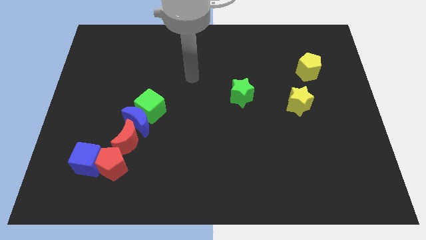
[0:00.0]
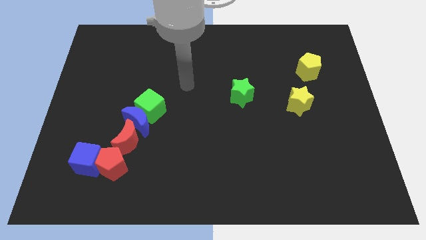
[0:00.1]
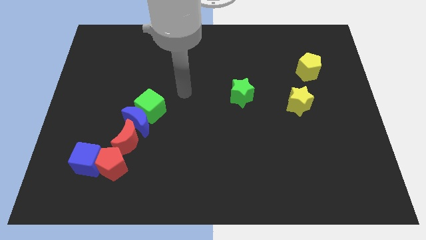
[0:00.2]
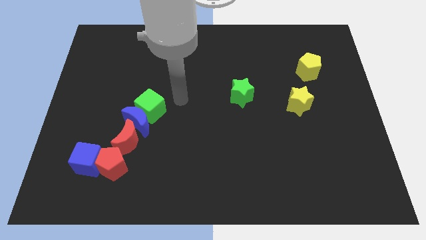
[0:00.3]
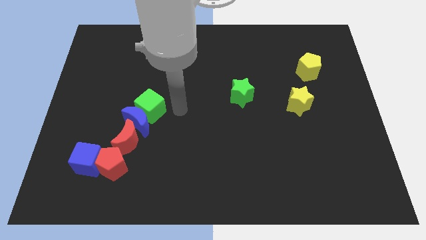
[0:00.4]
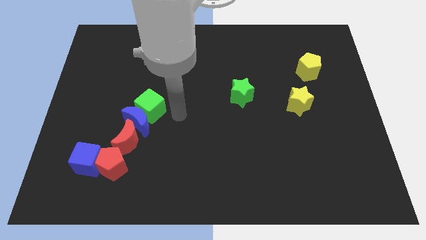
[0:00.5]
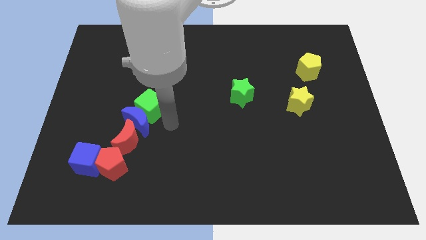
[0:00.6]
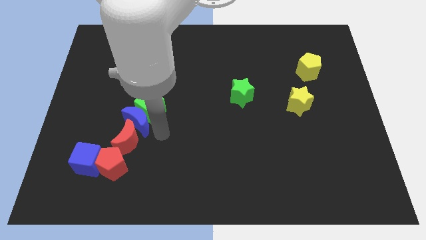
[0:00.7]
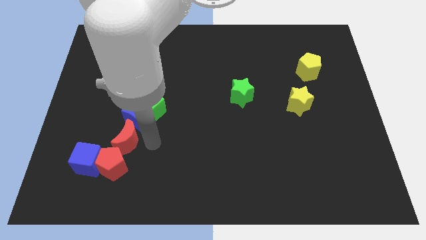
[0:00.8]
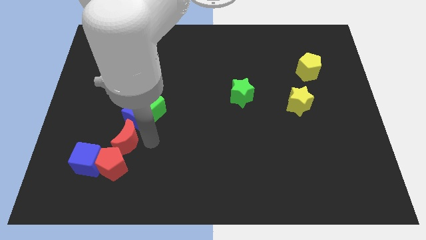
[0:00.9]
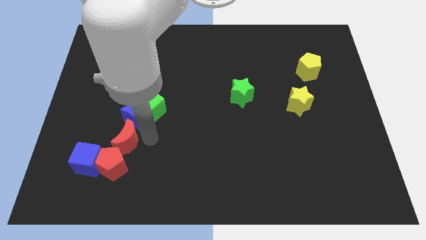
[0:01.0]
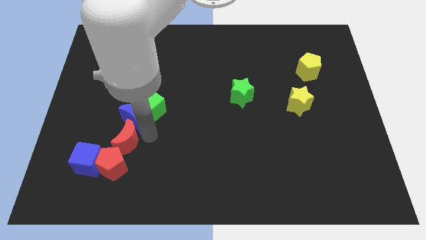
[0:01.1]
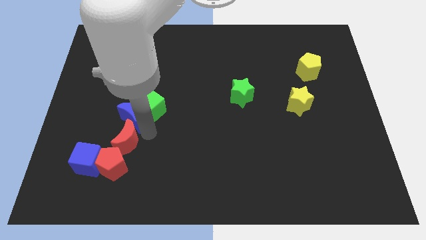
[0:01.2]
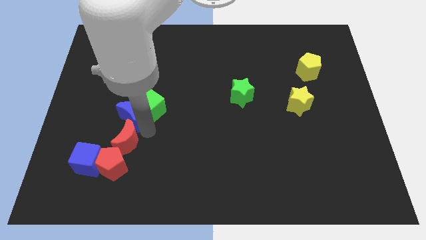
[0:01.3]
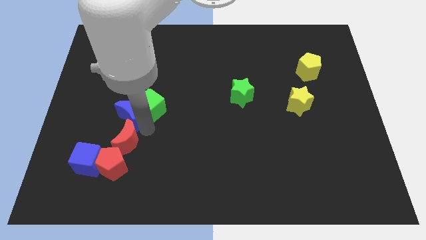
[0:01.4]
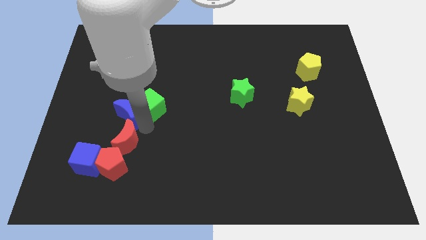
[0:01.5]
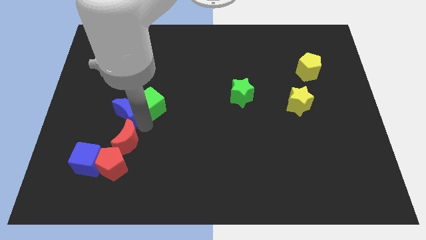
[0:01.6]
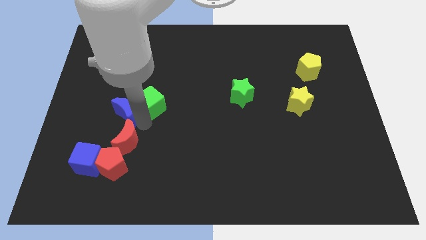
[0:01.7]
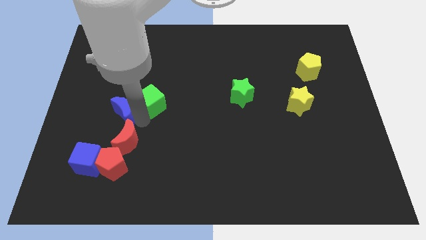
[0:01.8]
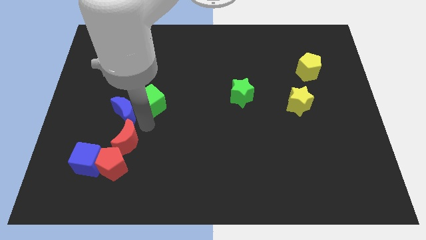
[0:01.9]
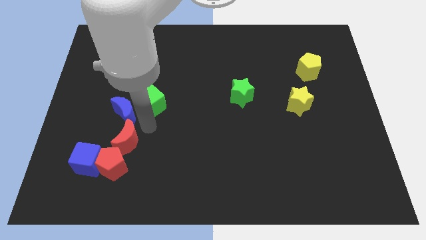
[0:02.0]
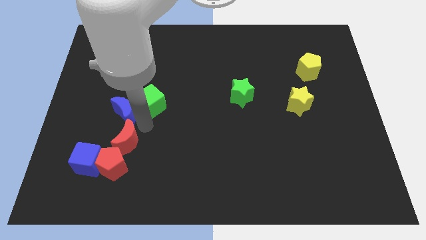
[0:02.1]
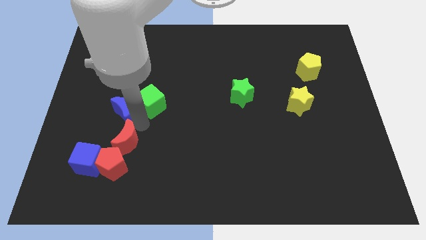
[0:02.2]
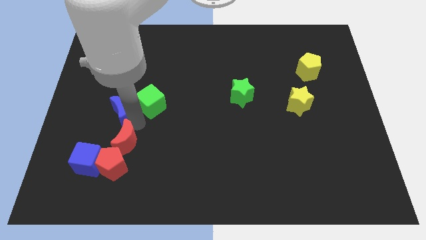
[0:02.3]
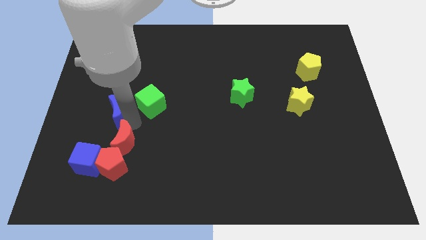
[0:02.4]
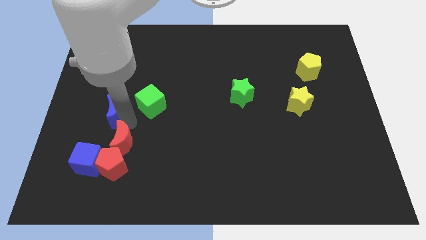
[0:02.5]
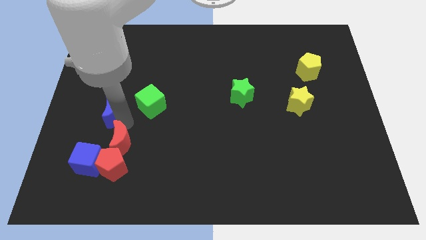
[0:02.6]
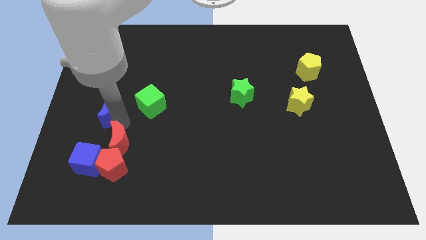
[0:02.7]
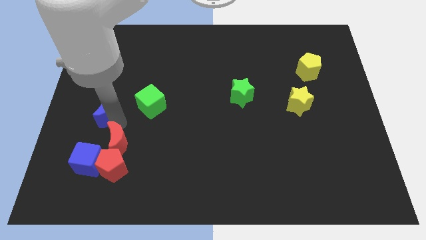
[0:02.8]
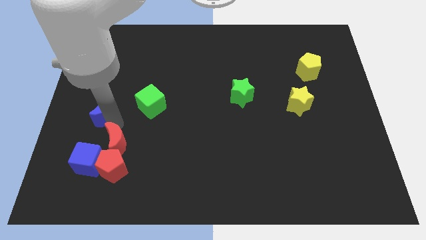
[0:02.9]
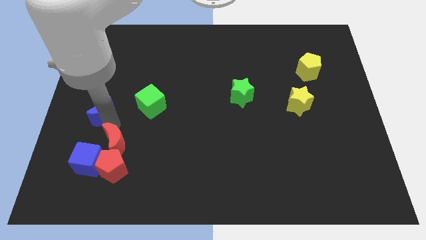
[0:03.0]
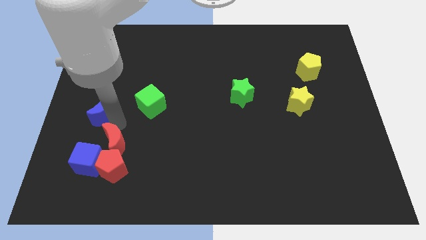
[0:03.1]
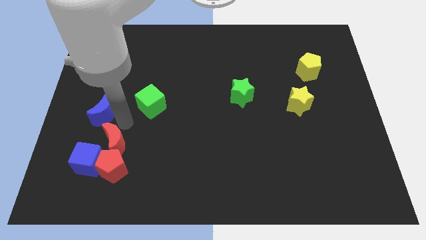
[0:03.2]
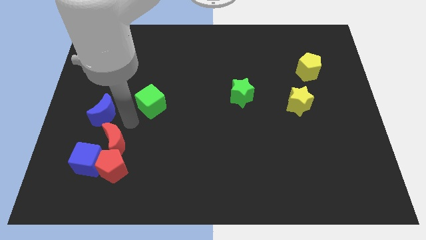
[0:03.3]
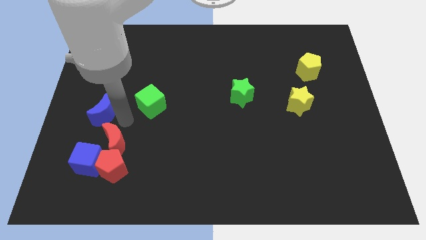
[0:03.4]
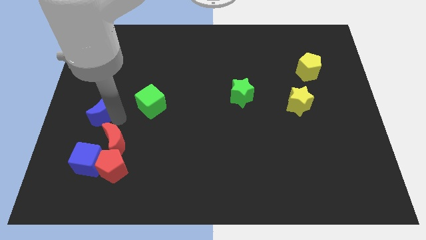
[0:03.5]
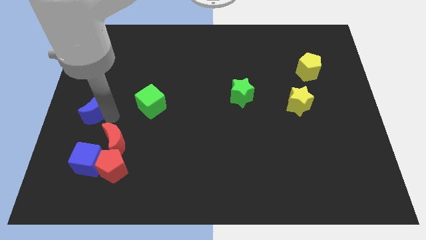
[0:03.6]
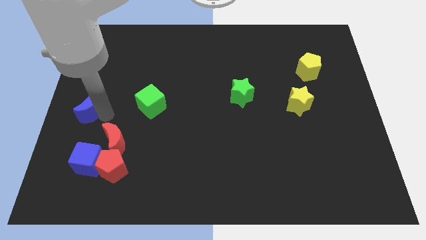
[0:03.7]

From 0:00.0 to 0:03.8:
pull the blue moon apart from the green cube and red moon

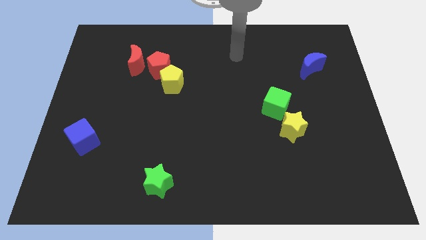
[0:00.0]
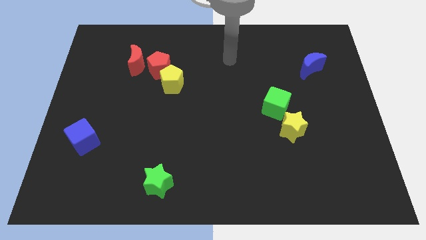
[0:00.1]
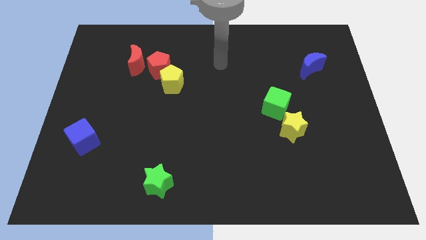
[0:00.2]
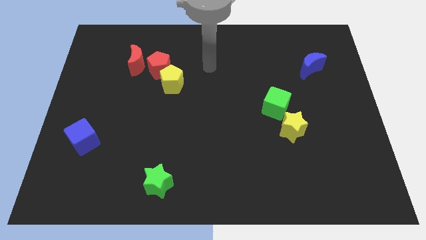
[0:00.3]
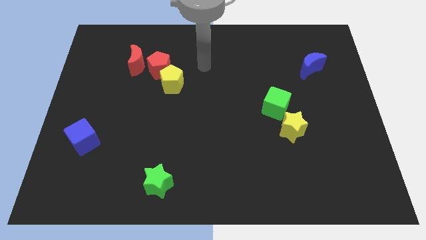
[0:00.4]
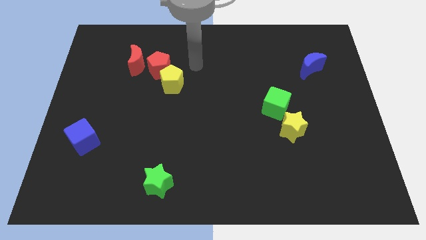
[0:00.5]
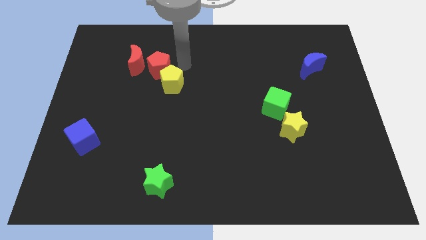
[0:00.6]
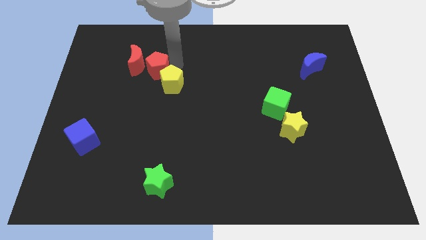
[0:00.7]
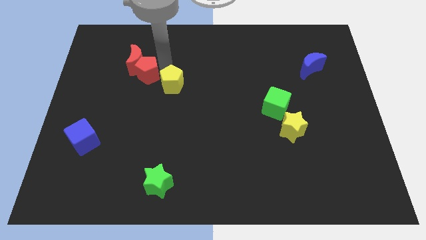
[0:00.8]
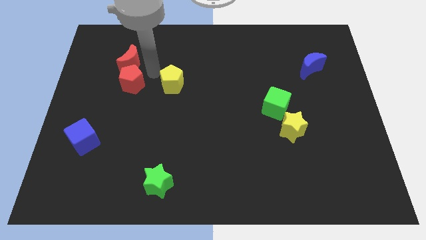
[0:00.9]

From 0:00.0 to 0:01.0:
separate the yellow pentagon from the red pentagon

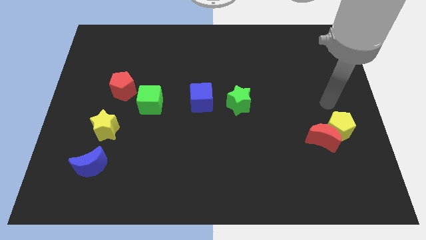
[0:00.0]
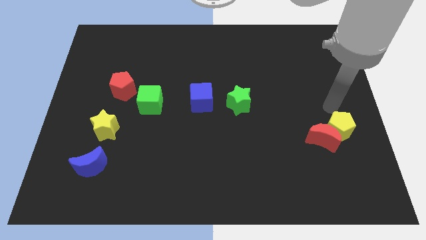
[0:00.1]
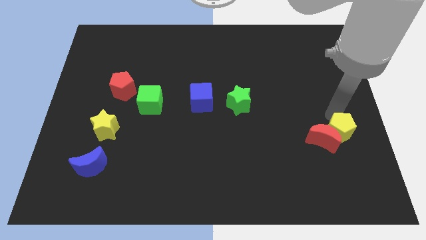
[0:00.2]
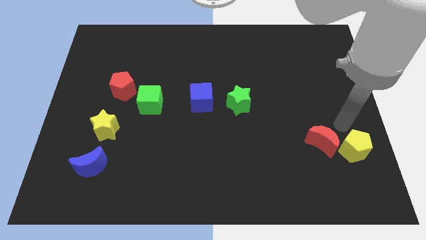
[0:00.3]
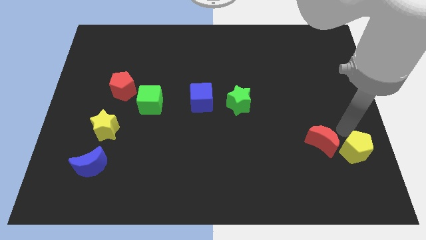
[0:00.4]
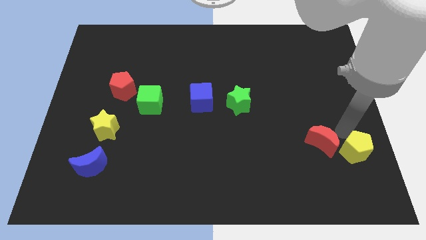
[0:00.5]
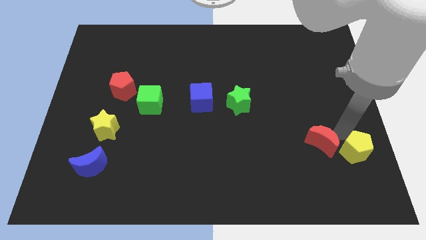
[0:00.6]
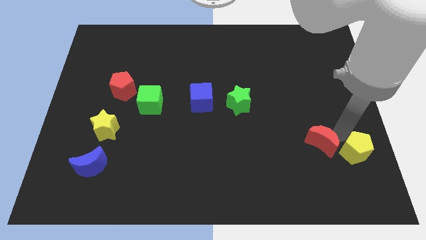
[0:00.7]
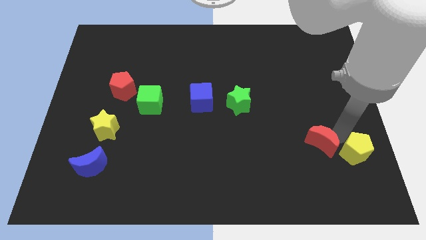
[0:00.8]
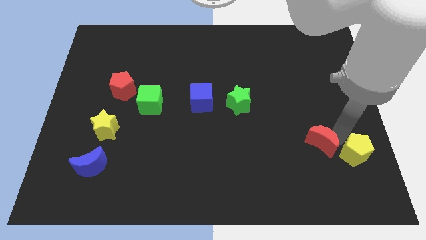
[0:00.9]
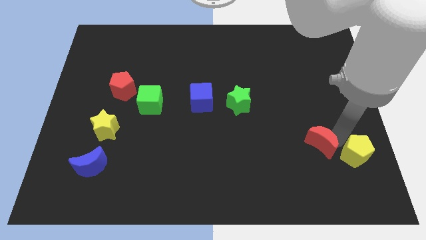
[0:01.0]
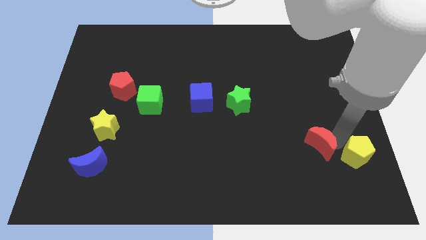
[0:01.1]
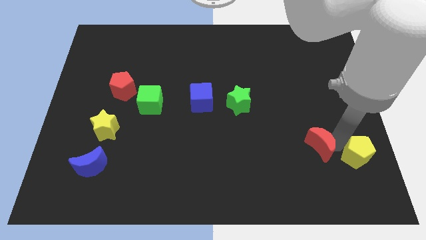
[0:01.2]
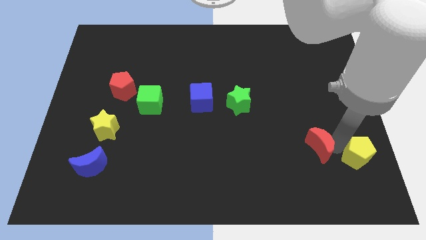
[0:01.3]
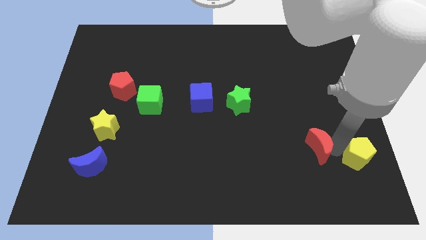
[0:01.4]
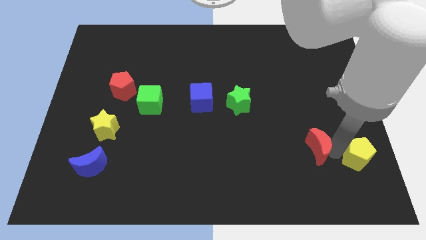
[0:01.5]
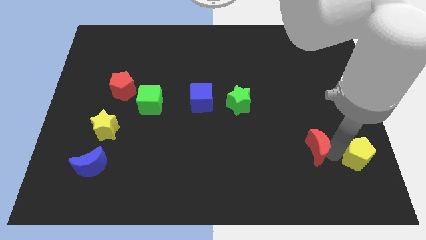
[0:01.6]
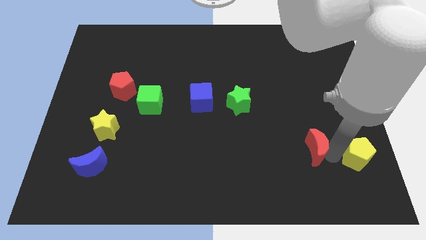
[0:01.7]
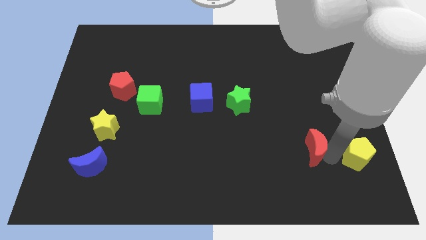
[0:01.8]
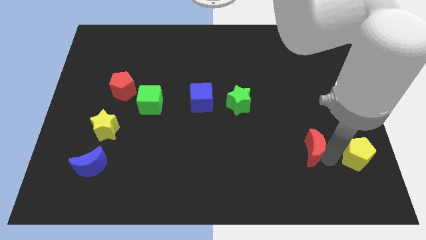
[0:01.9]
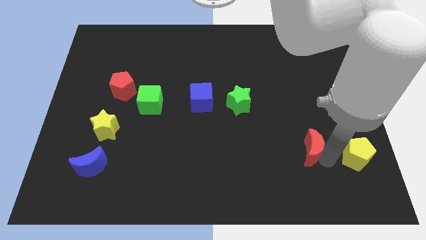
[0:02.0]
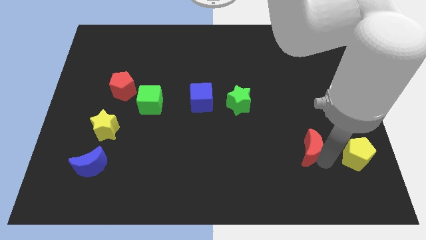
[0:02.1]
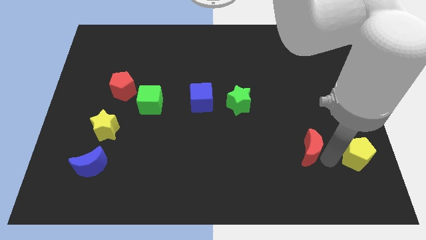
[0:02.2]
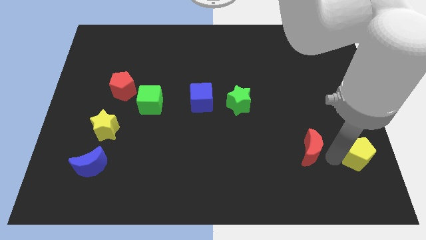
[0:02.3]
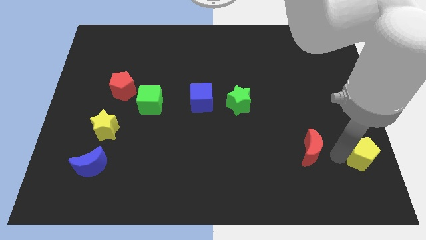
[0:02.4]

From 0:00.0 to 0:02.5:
move the red moon away from the yellow pentagon

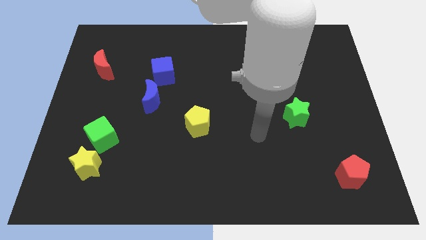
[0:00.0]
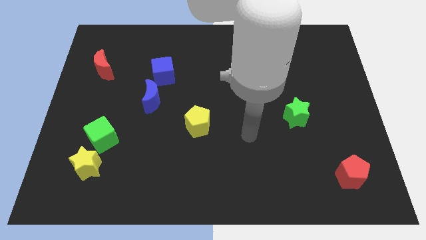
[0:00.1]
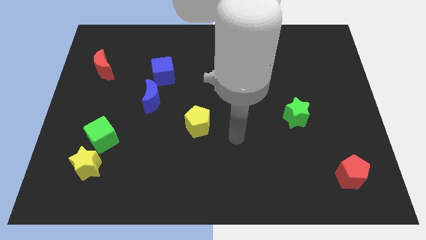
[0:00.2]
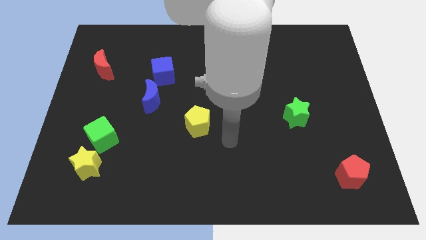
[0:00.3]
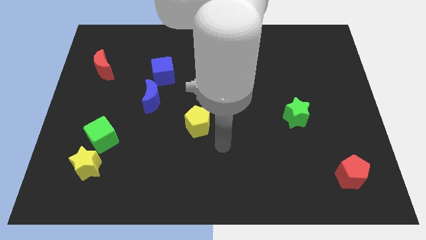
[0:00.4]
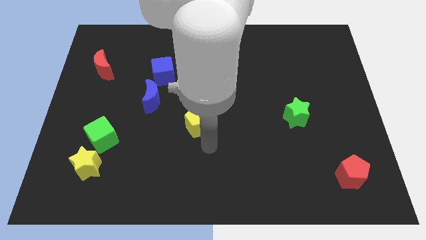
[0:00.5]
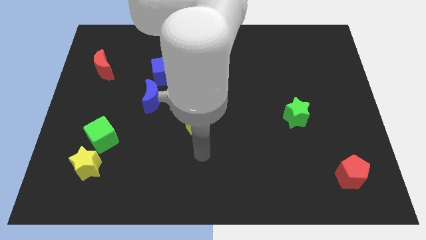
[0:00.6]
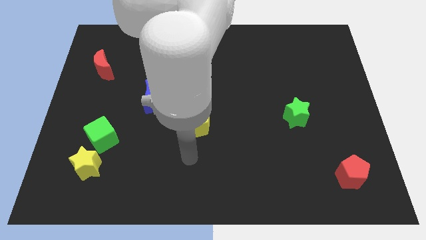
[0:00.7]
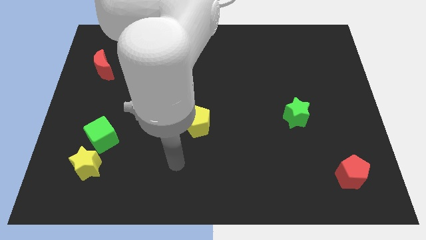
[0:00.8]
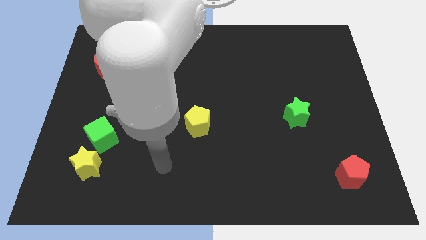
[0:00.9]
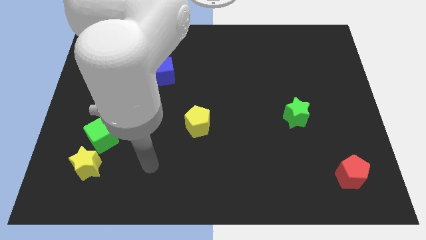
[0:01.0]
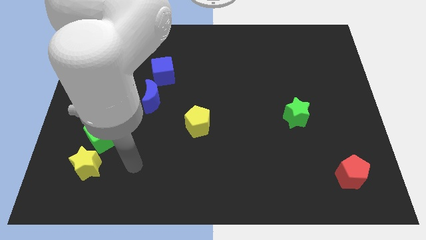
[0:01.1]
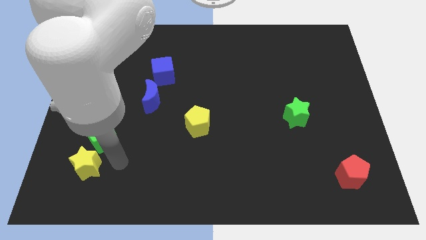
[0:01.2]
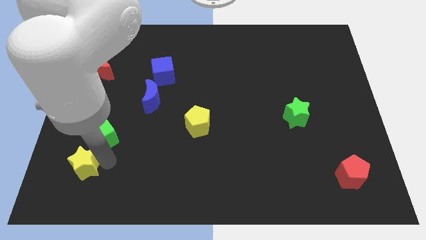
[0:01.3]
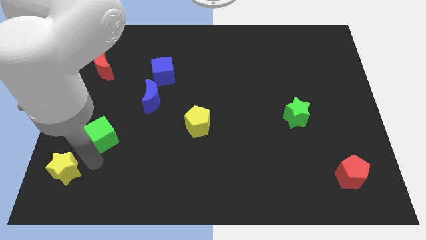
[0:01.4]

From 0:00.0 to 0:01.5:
pull the green cube apart from the yellow star

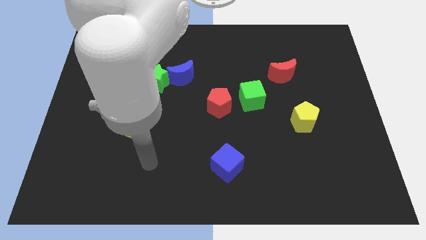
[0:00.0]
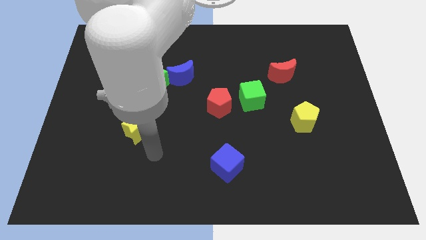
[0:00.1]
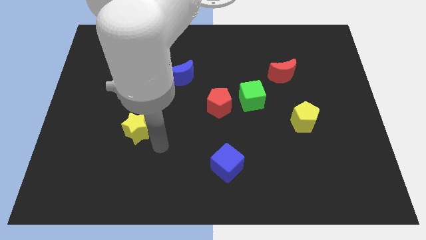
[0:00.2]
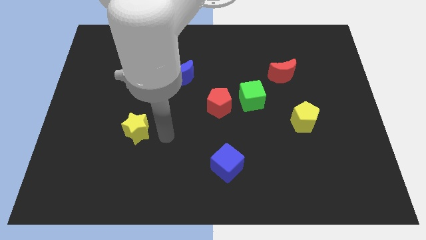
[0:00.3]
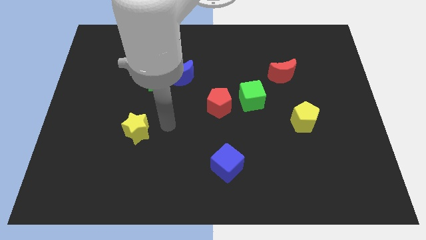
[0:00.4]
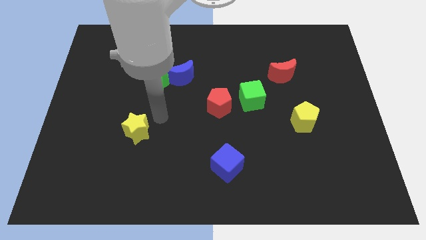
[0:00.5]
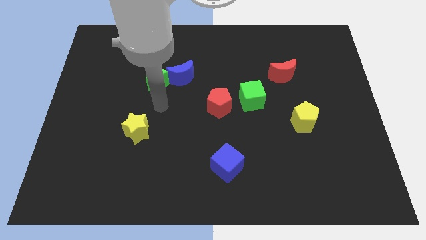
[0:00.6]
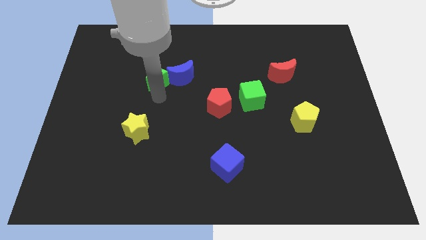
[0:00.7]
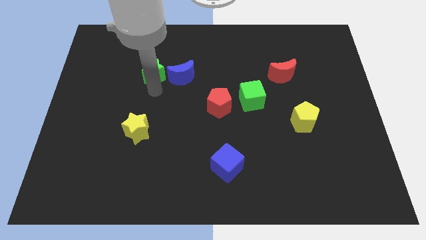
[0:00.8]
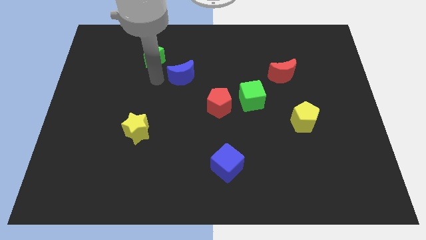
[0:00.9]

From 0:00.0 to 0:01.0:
separate the blue moon from the green star
